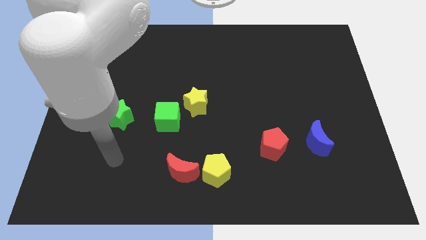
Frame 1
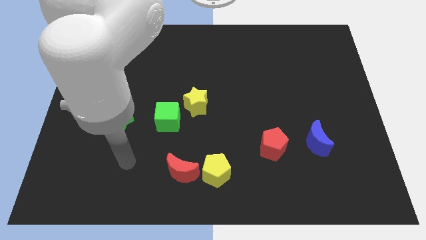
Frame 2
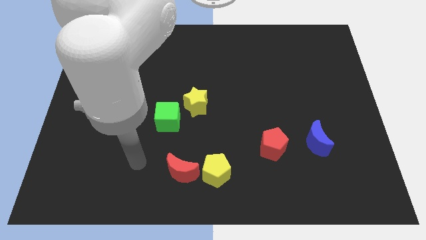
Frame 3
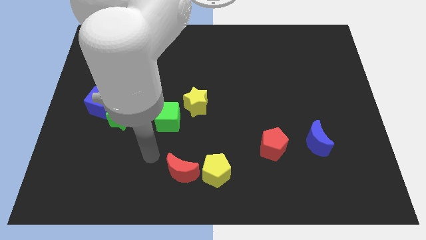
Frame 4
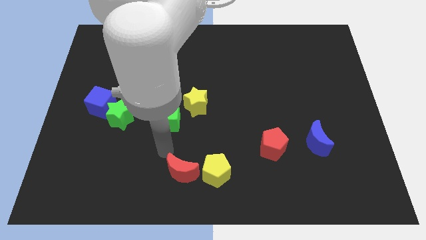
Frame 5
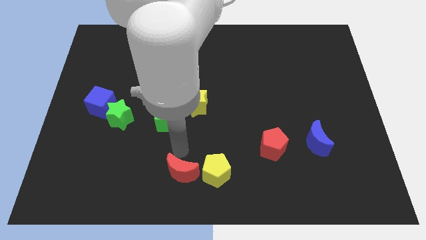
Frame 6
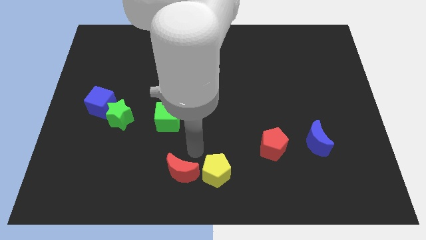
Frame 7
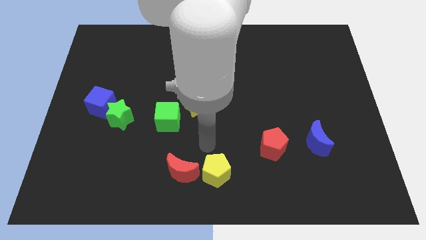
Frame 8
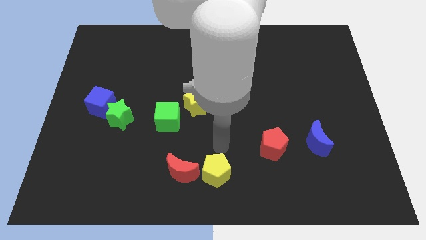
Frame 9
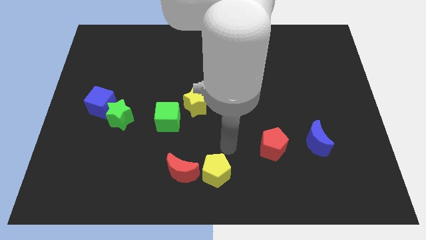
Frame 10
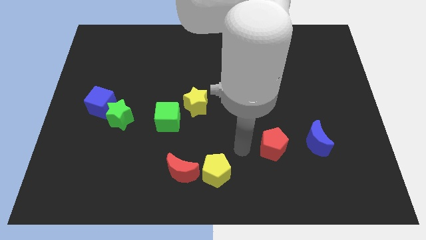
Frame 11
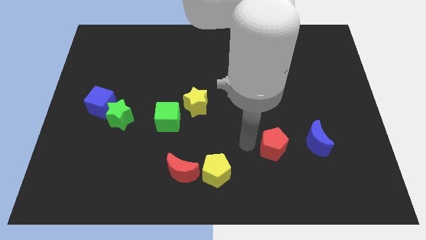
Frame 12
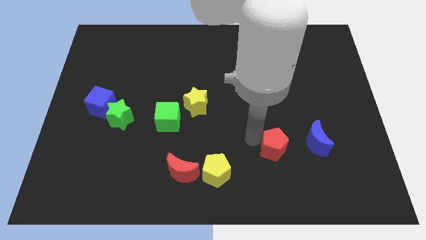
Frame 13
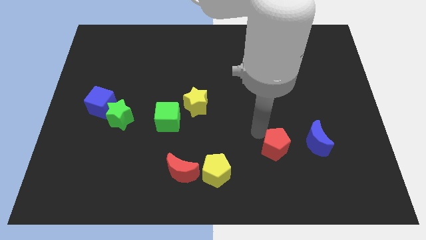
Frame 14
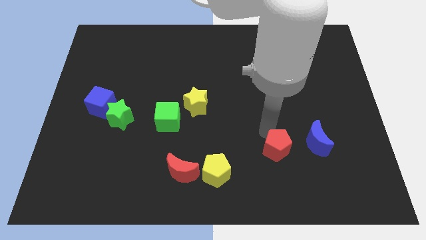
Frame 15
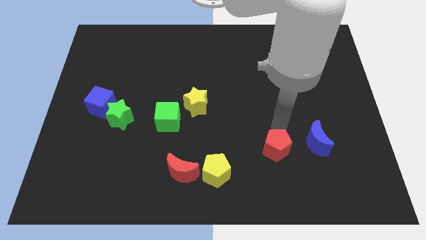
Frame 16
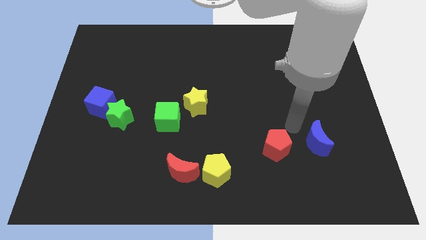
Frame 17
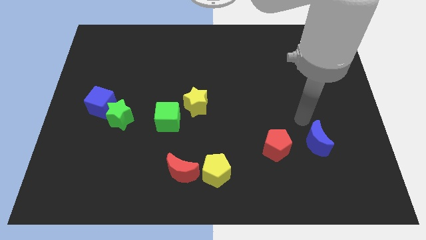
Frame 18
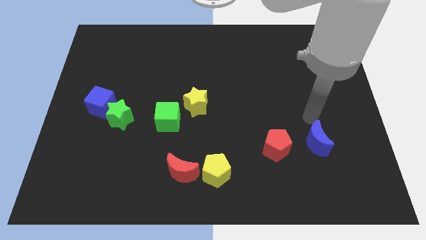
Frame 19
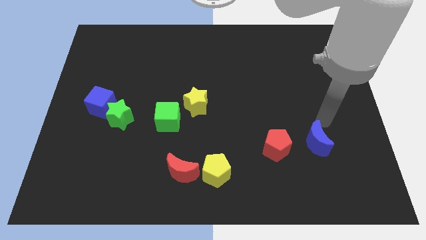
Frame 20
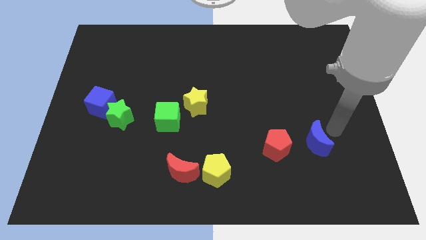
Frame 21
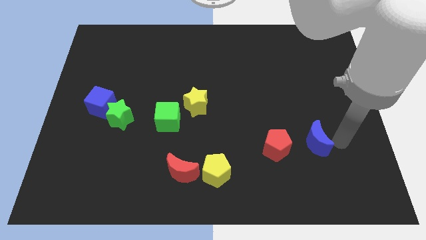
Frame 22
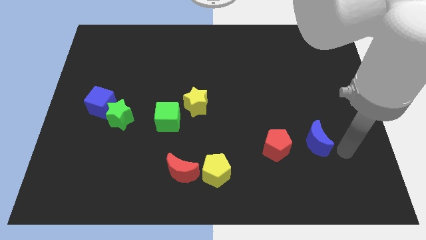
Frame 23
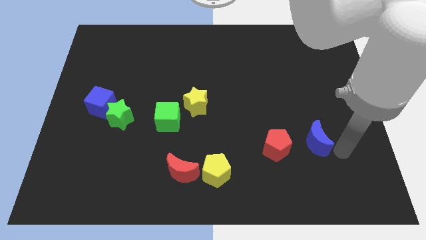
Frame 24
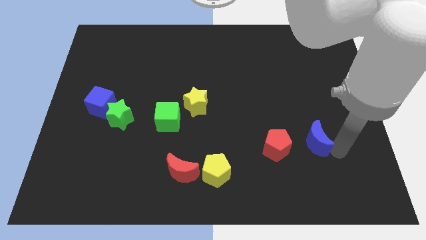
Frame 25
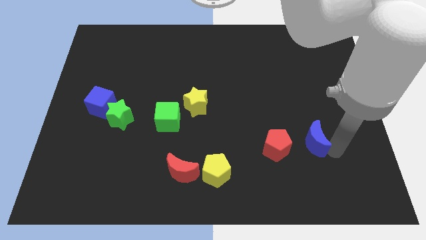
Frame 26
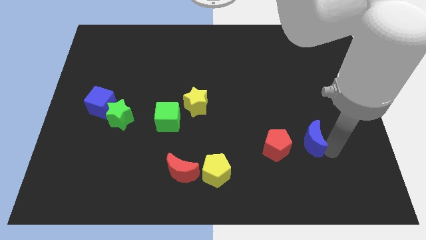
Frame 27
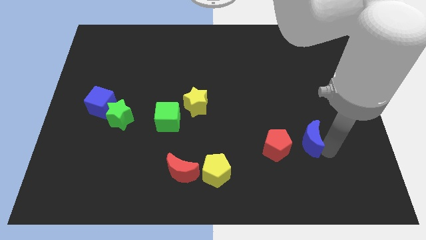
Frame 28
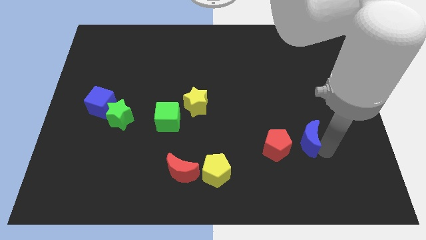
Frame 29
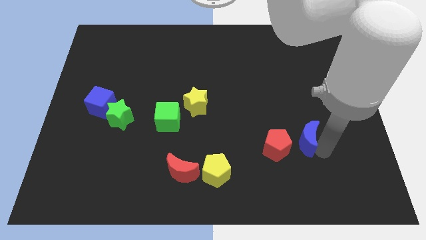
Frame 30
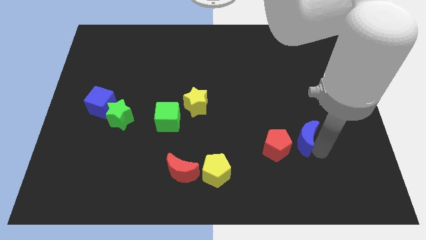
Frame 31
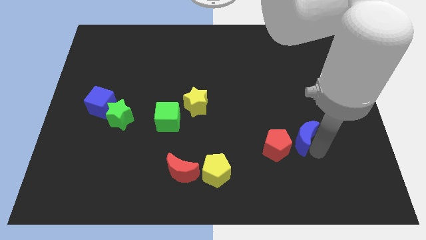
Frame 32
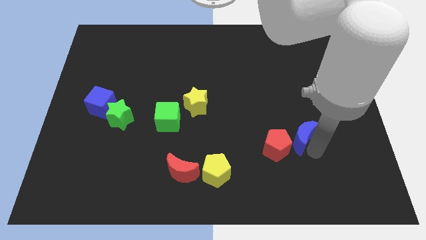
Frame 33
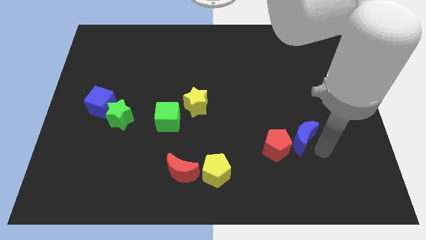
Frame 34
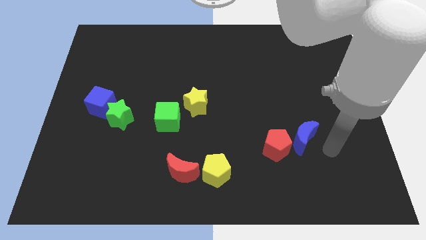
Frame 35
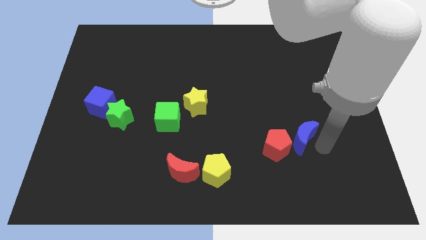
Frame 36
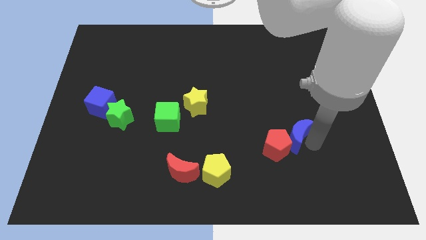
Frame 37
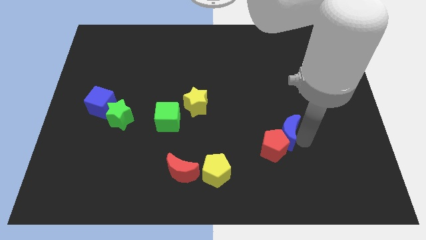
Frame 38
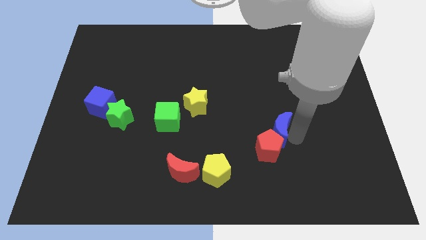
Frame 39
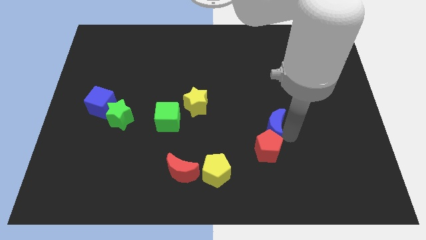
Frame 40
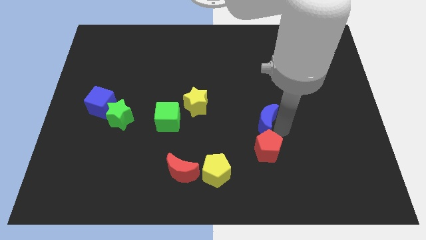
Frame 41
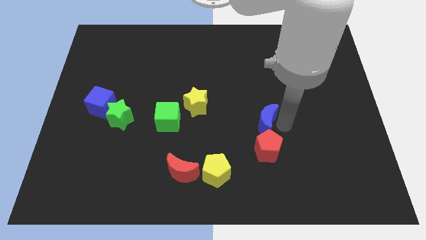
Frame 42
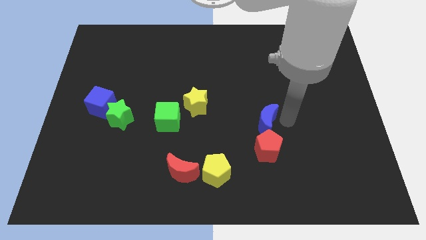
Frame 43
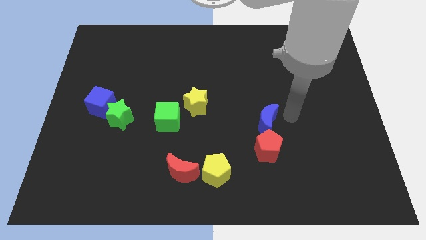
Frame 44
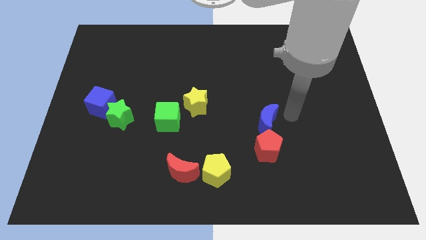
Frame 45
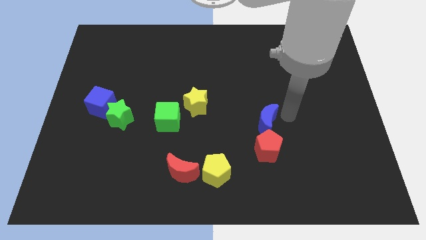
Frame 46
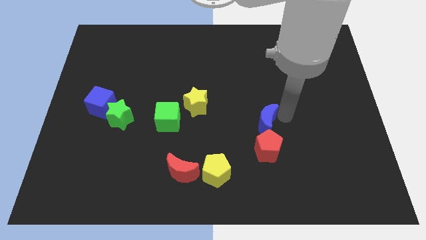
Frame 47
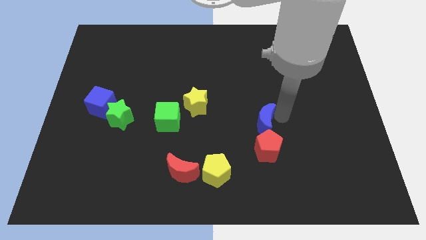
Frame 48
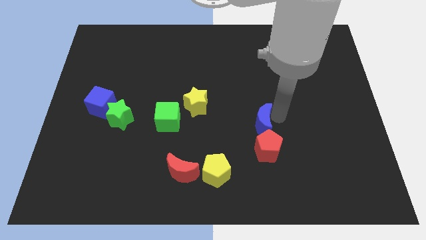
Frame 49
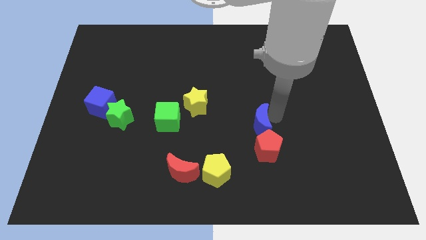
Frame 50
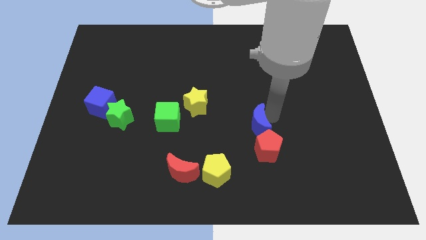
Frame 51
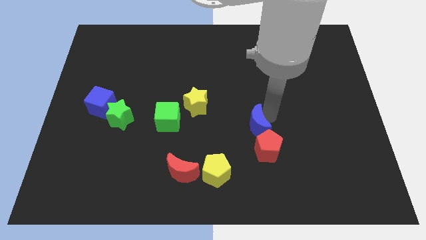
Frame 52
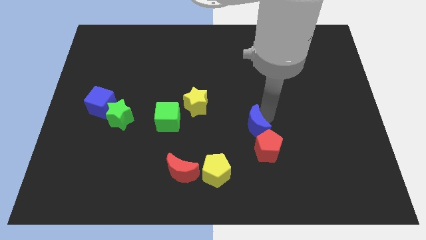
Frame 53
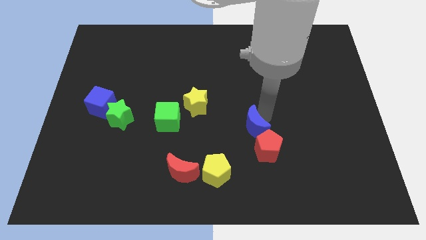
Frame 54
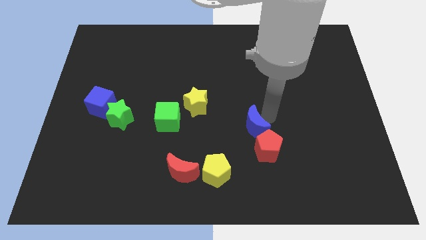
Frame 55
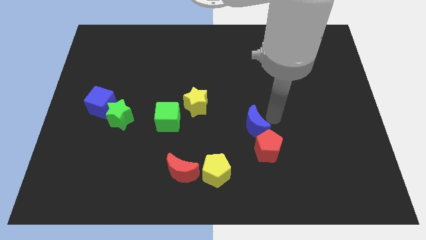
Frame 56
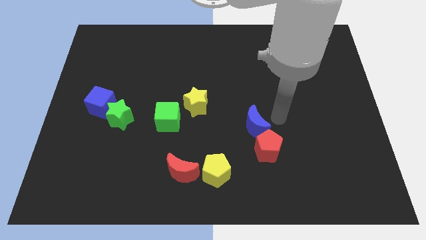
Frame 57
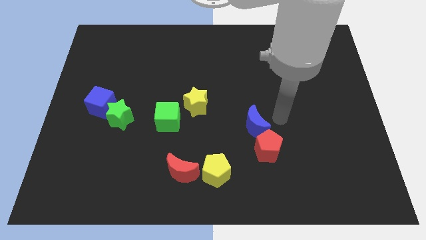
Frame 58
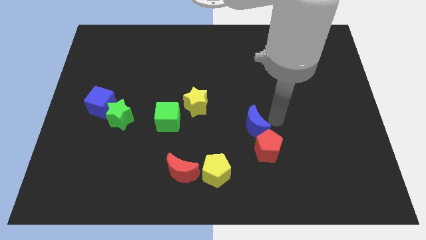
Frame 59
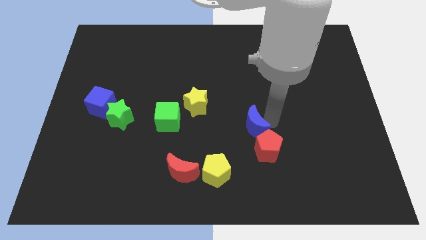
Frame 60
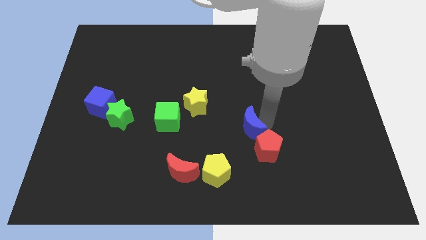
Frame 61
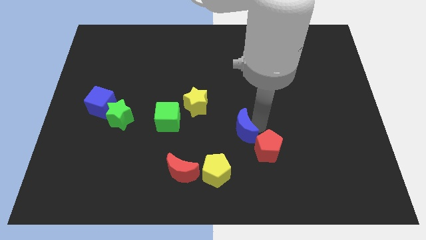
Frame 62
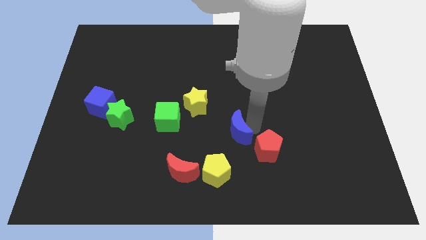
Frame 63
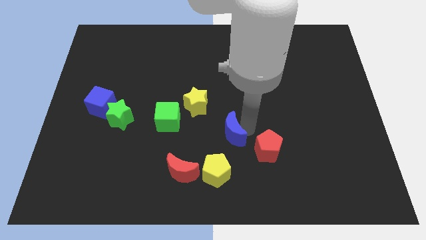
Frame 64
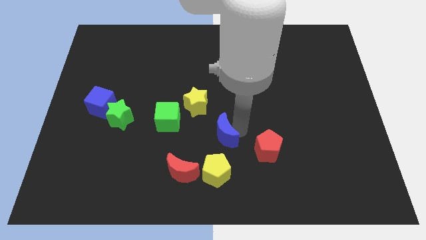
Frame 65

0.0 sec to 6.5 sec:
slide the blue moon to the top right of the red moon
